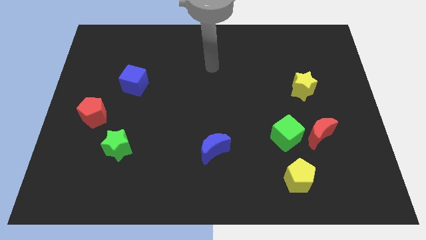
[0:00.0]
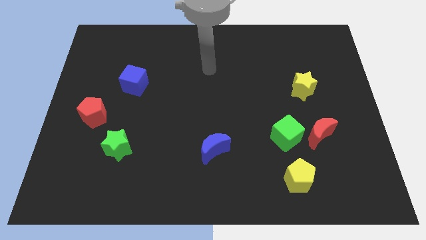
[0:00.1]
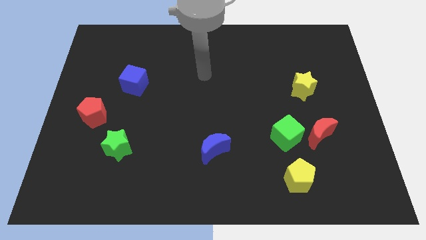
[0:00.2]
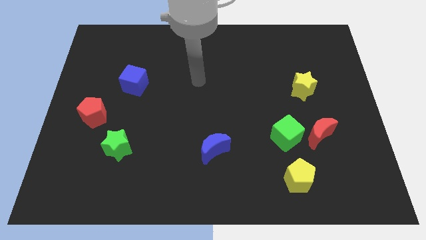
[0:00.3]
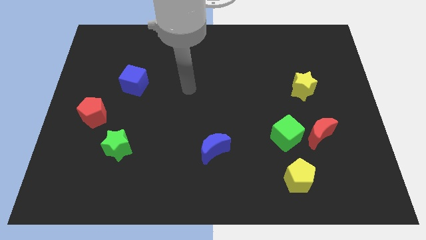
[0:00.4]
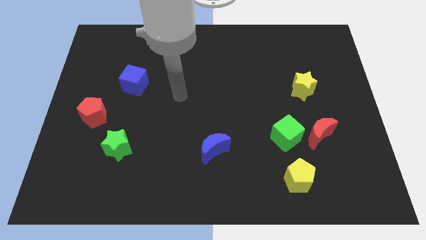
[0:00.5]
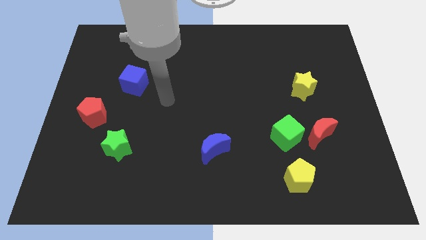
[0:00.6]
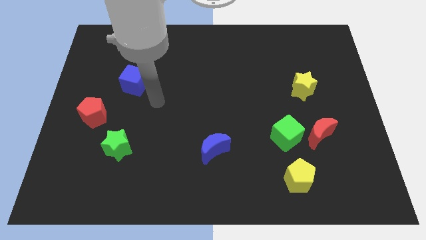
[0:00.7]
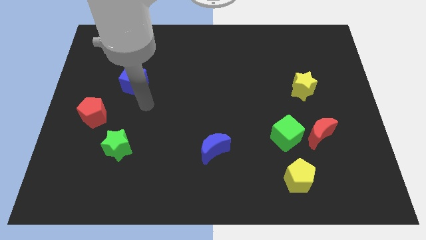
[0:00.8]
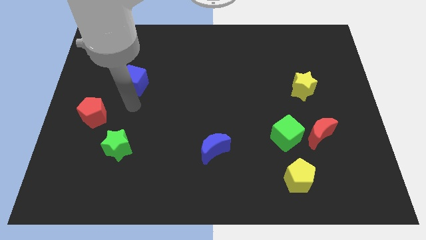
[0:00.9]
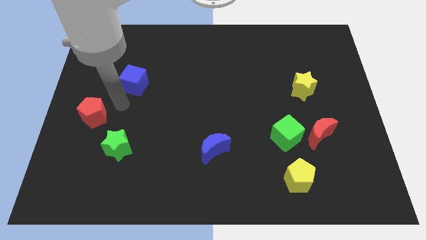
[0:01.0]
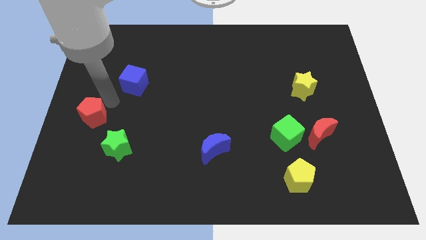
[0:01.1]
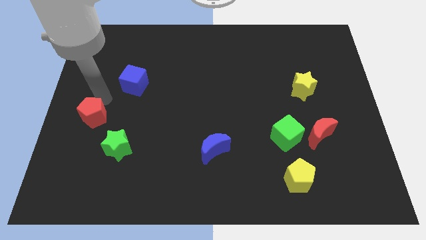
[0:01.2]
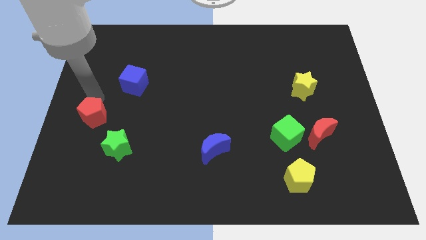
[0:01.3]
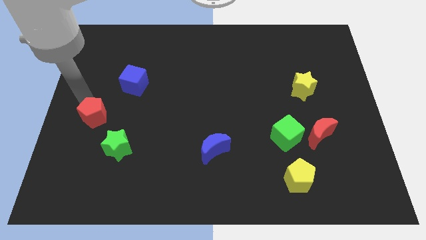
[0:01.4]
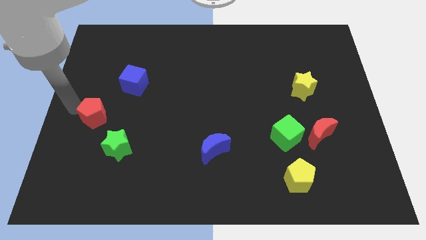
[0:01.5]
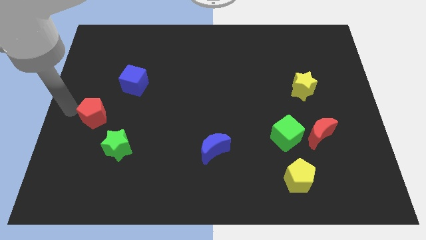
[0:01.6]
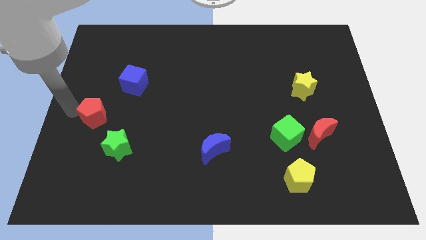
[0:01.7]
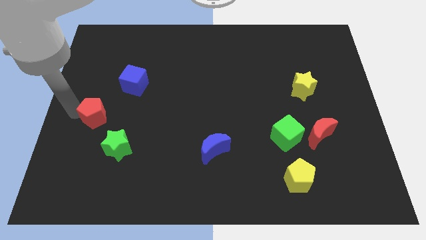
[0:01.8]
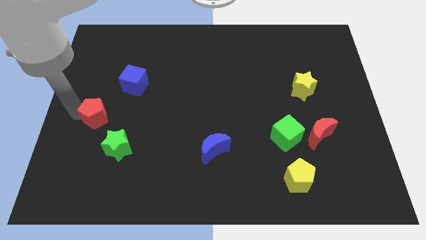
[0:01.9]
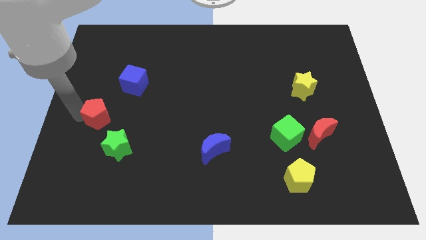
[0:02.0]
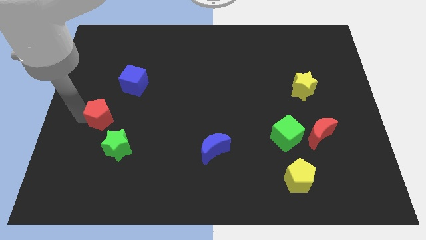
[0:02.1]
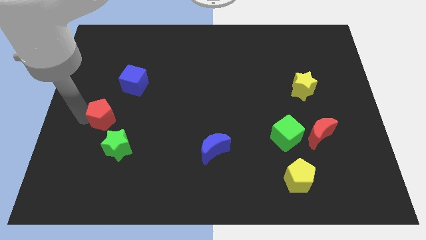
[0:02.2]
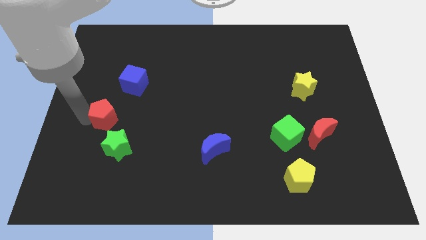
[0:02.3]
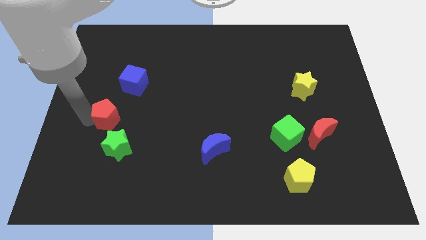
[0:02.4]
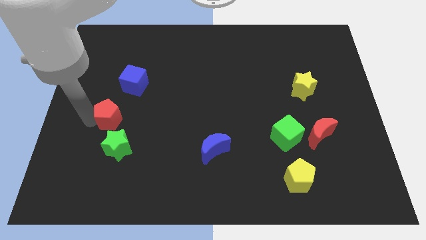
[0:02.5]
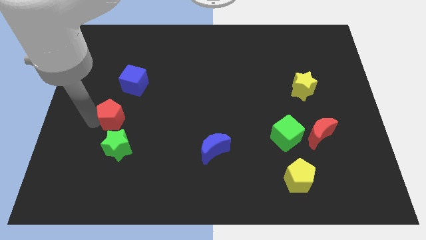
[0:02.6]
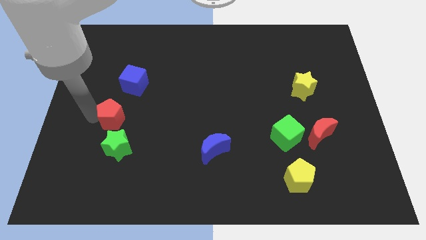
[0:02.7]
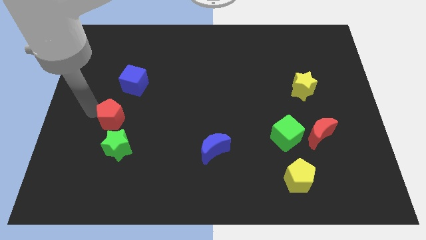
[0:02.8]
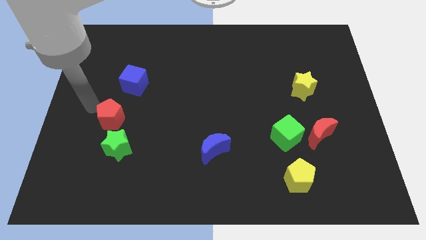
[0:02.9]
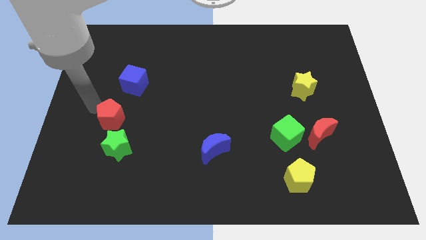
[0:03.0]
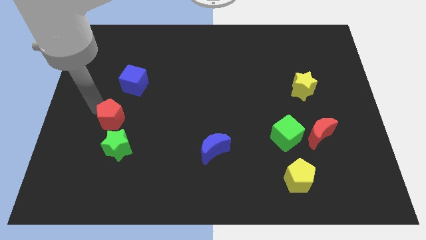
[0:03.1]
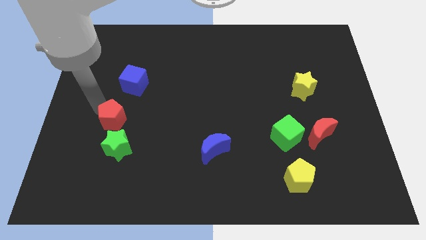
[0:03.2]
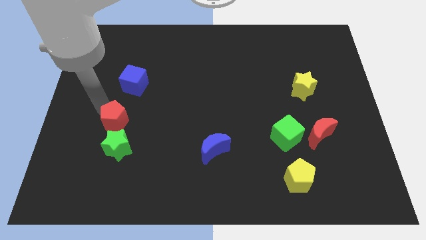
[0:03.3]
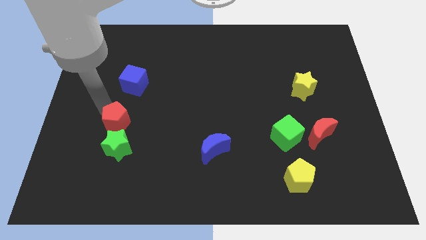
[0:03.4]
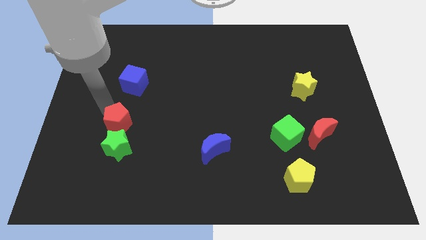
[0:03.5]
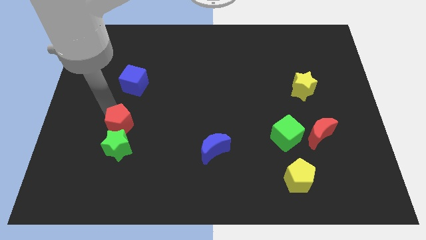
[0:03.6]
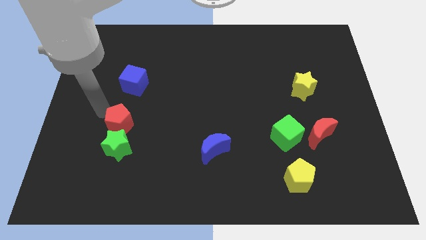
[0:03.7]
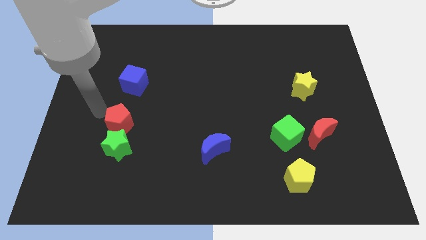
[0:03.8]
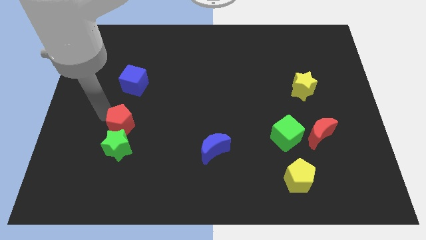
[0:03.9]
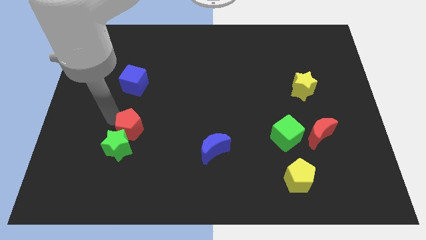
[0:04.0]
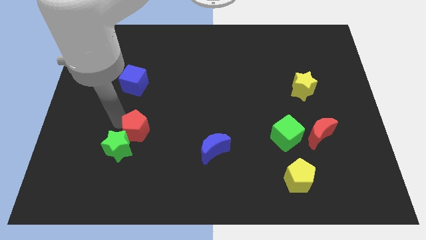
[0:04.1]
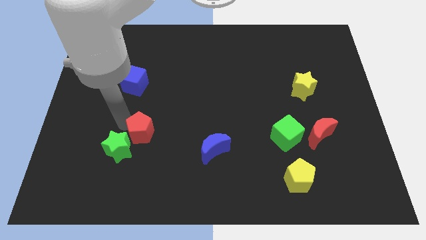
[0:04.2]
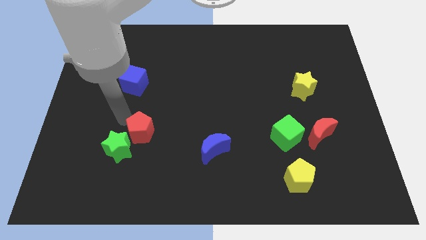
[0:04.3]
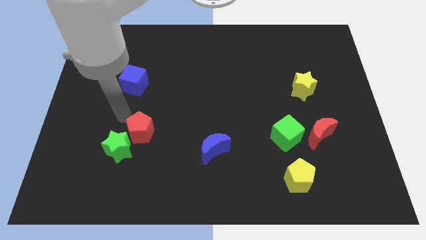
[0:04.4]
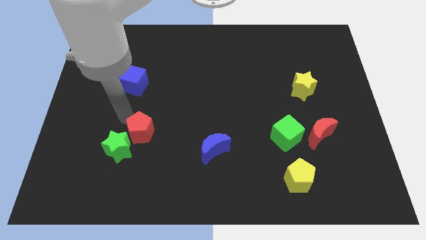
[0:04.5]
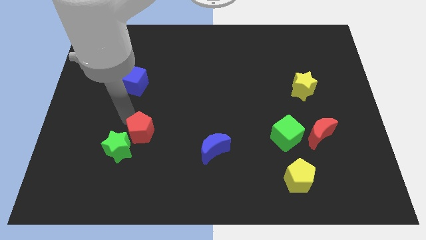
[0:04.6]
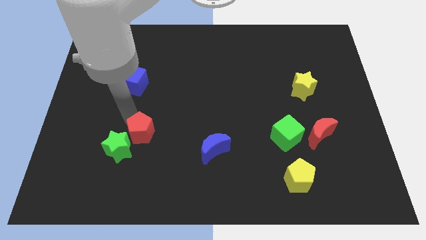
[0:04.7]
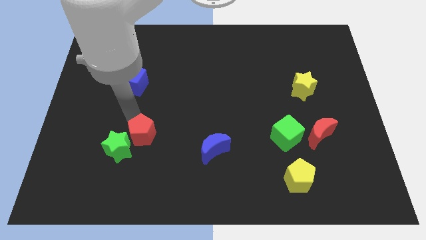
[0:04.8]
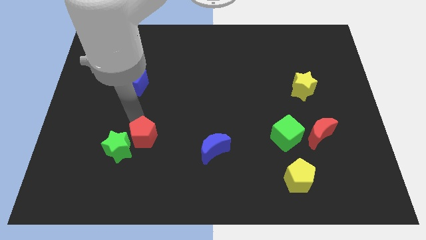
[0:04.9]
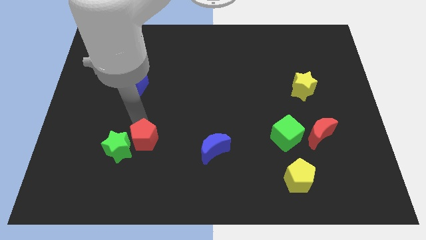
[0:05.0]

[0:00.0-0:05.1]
put the red pentagon left of the blue moon

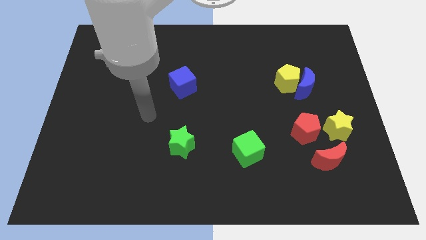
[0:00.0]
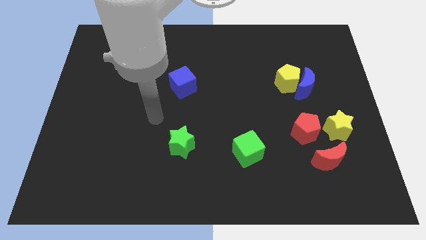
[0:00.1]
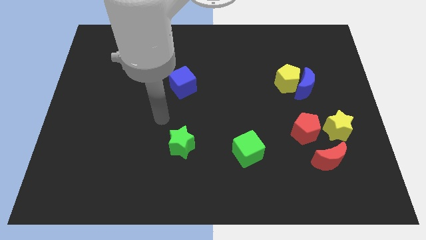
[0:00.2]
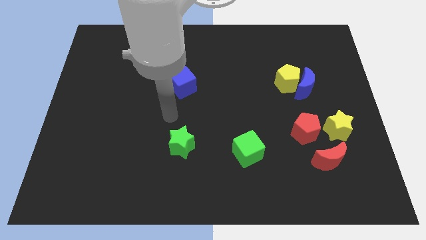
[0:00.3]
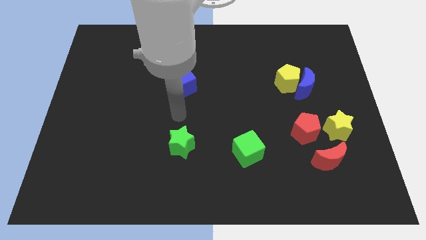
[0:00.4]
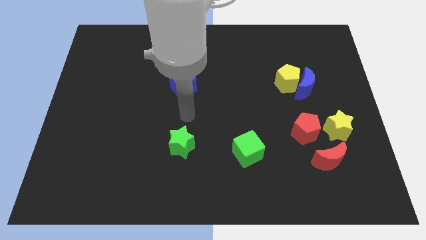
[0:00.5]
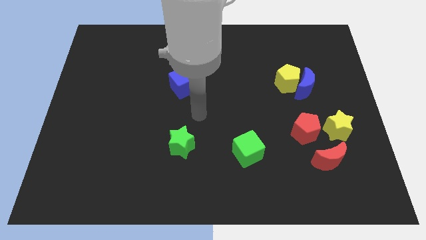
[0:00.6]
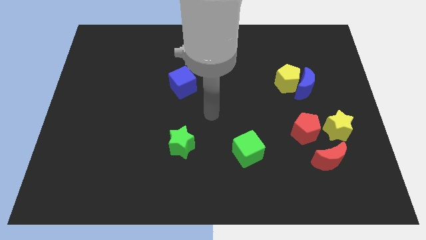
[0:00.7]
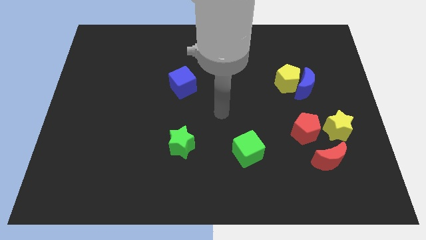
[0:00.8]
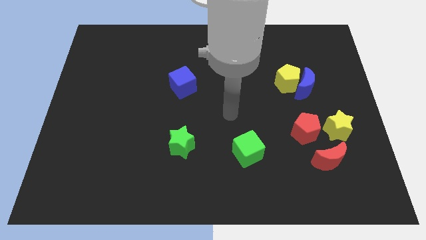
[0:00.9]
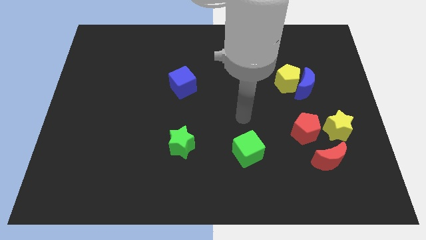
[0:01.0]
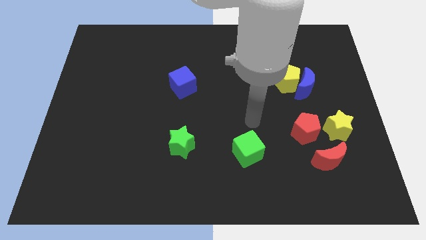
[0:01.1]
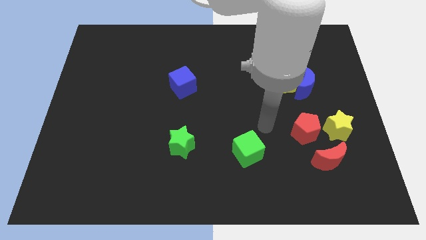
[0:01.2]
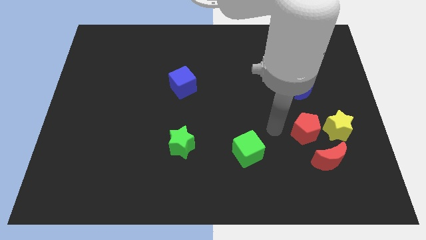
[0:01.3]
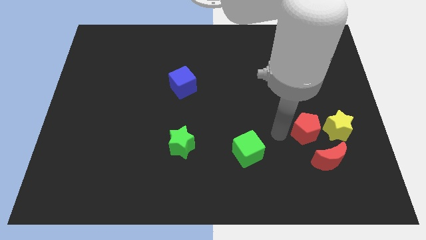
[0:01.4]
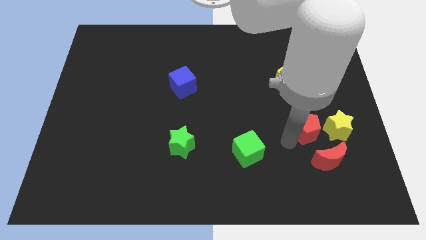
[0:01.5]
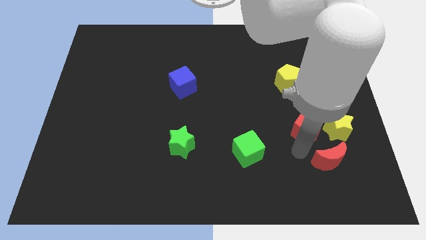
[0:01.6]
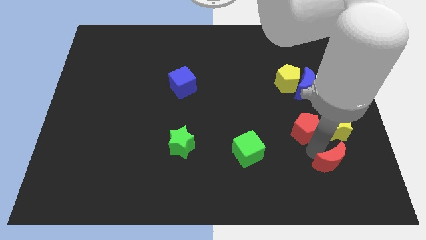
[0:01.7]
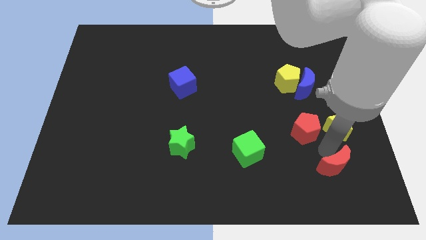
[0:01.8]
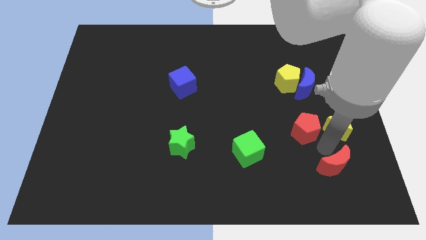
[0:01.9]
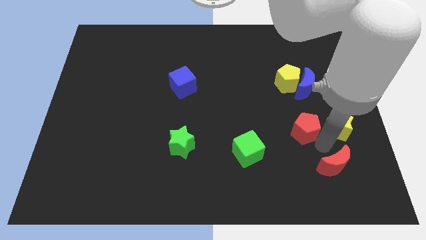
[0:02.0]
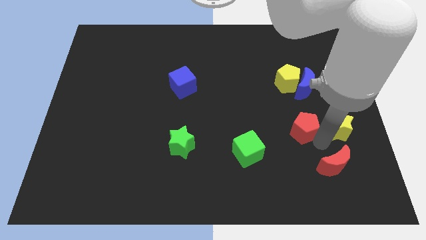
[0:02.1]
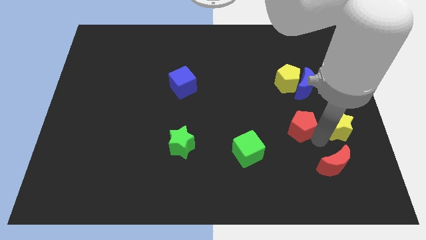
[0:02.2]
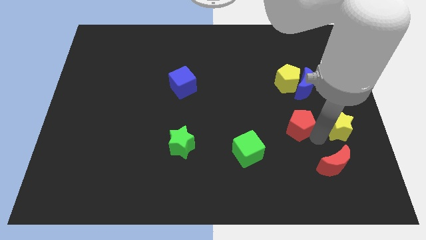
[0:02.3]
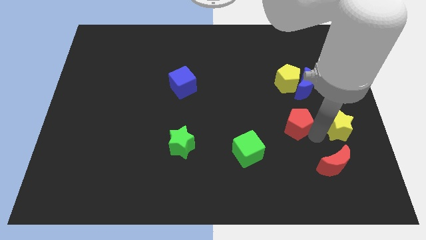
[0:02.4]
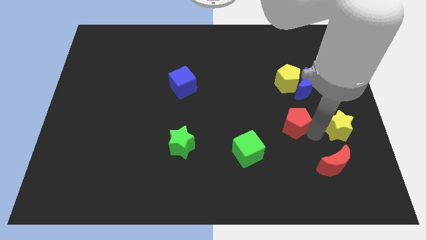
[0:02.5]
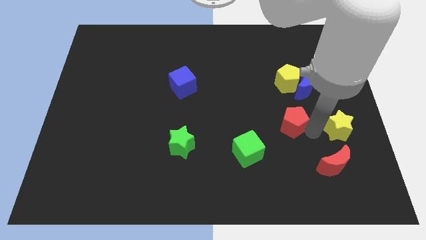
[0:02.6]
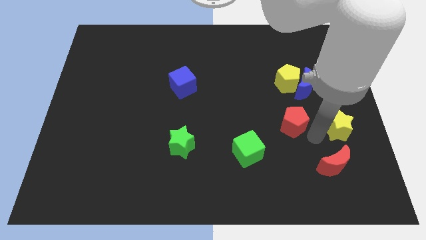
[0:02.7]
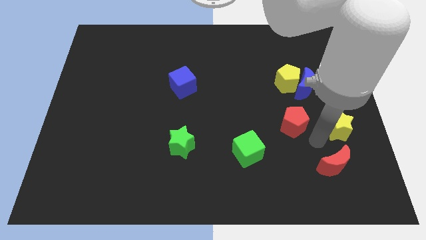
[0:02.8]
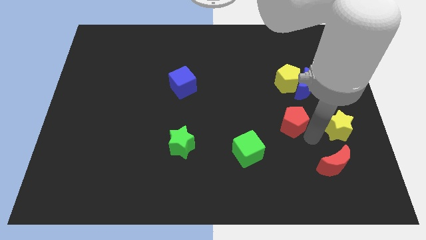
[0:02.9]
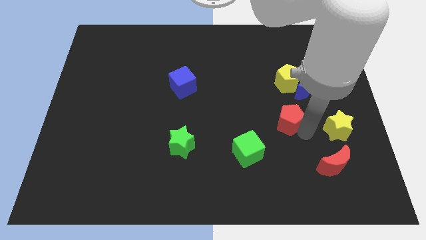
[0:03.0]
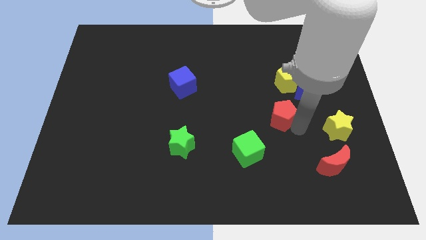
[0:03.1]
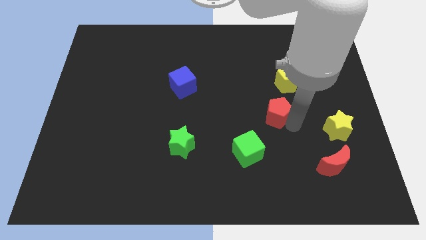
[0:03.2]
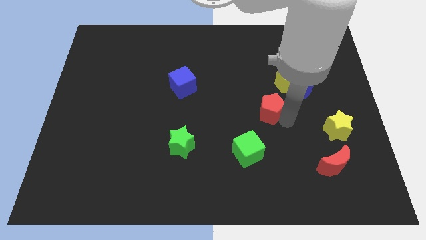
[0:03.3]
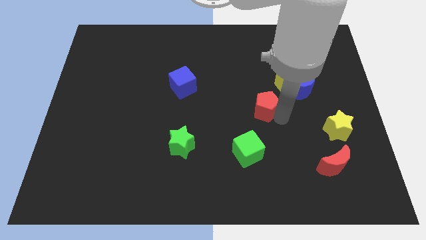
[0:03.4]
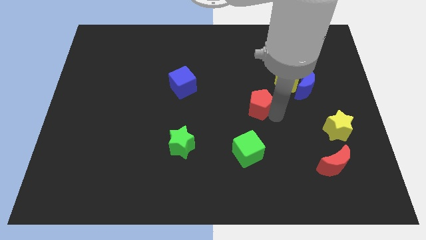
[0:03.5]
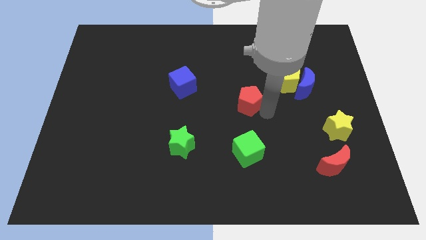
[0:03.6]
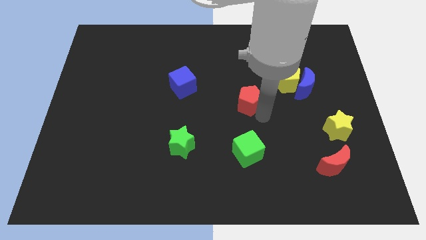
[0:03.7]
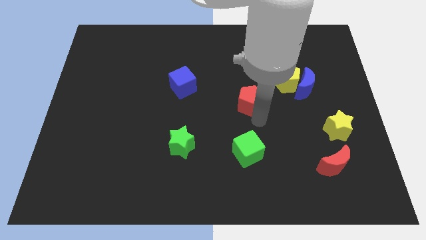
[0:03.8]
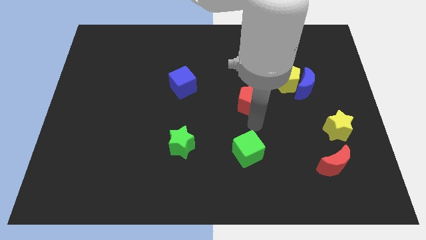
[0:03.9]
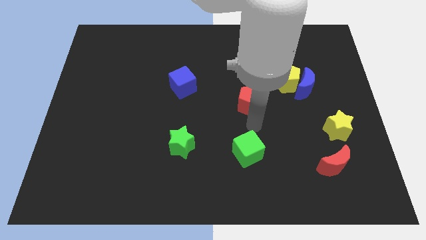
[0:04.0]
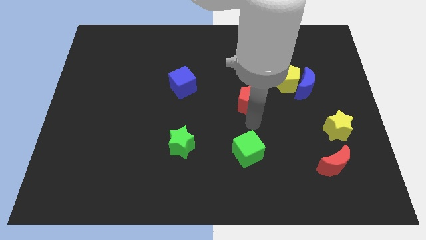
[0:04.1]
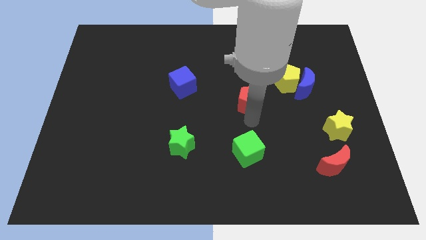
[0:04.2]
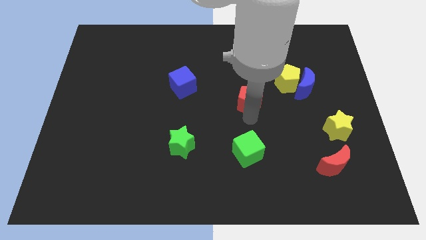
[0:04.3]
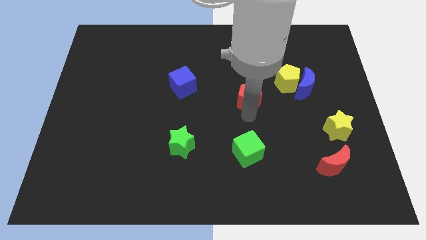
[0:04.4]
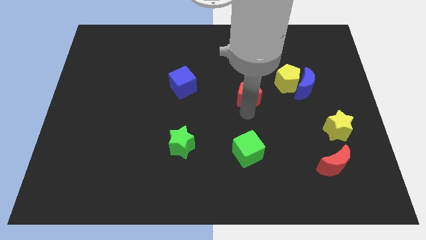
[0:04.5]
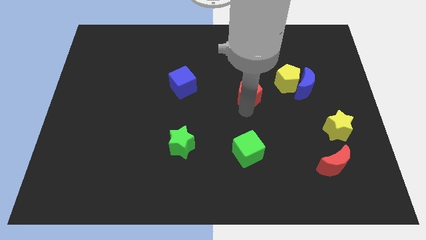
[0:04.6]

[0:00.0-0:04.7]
move the red pentagon left of the yellow pentagon
